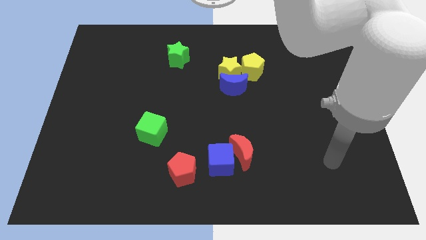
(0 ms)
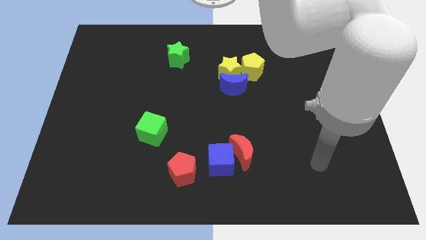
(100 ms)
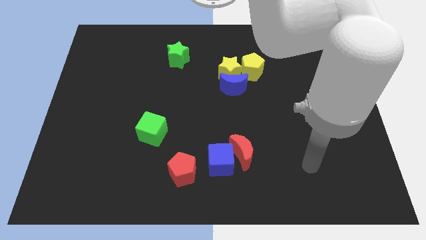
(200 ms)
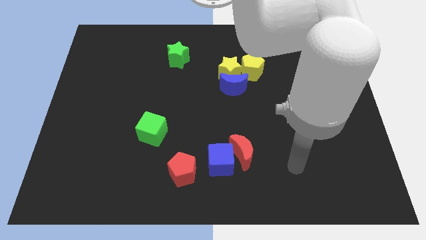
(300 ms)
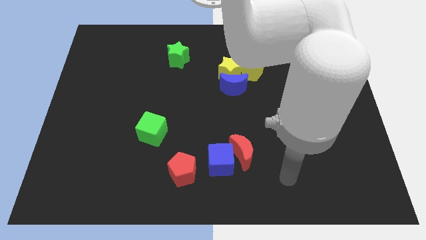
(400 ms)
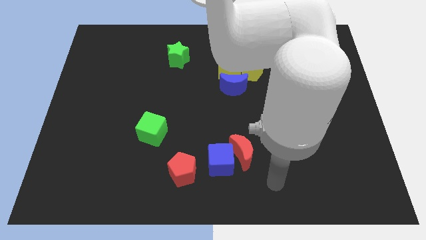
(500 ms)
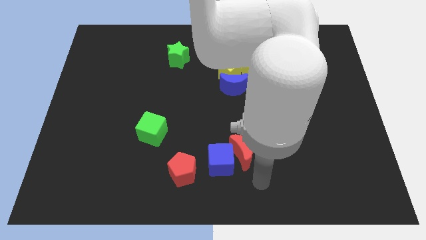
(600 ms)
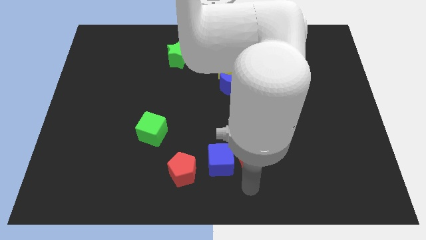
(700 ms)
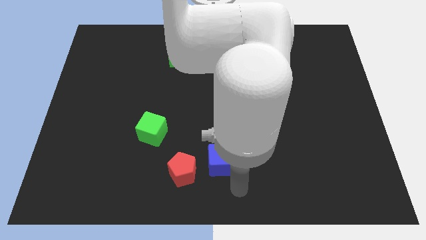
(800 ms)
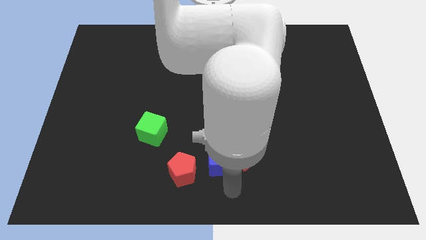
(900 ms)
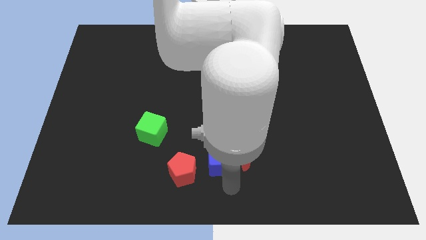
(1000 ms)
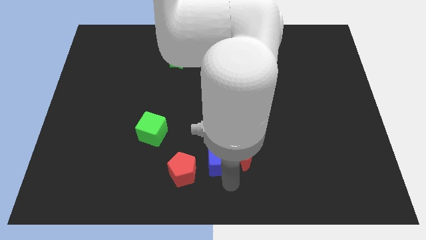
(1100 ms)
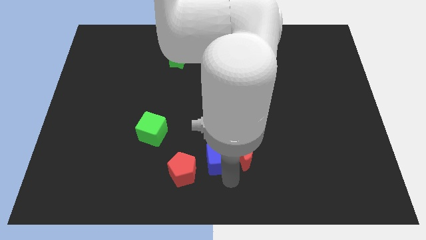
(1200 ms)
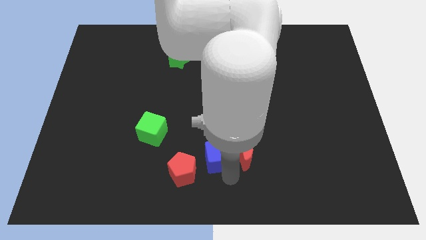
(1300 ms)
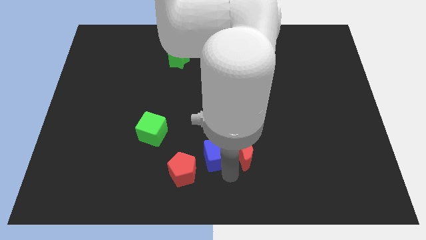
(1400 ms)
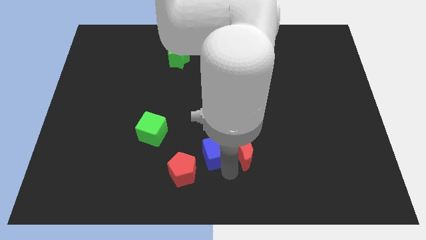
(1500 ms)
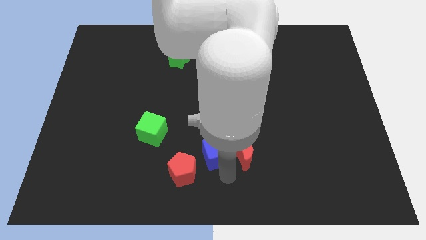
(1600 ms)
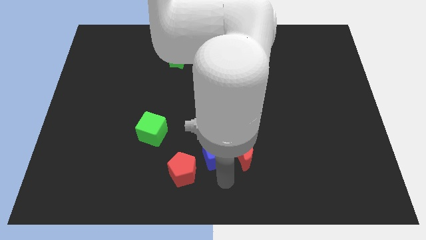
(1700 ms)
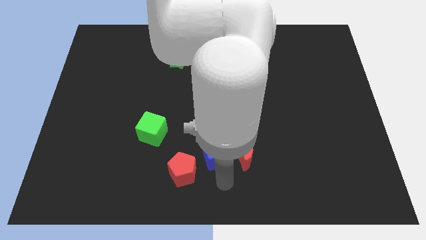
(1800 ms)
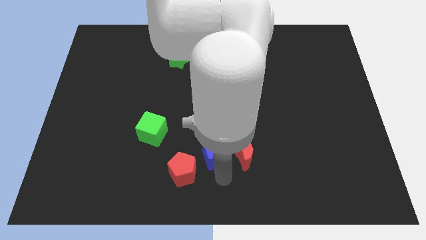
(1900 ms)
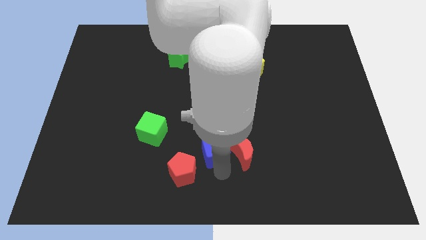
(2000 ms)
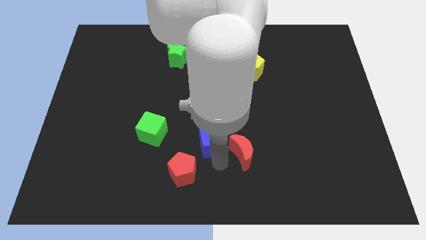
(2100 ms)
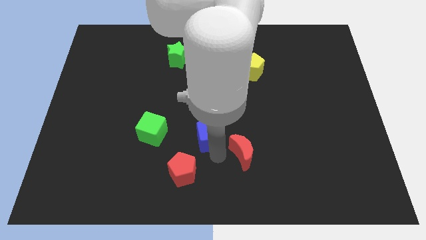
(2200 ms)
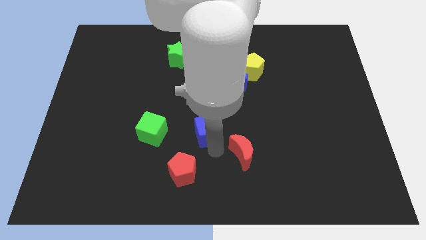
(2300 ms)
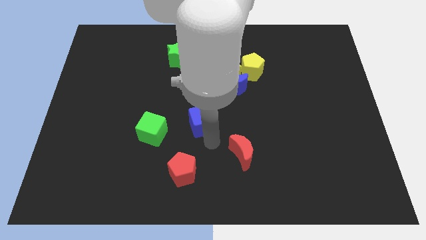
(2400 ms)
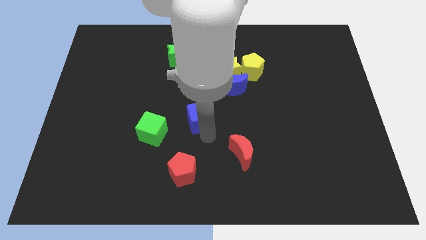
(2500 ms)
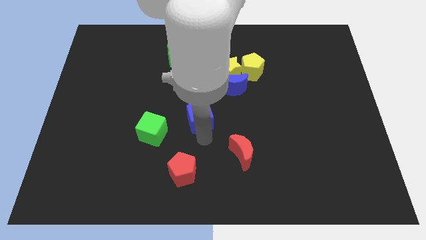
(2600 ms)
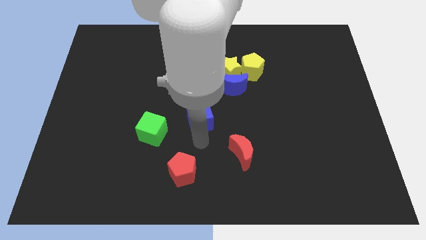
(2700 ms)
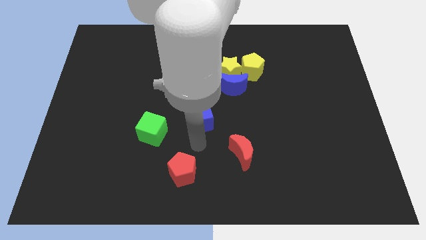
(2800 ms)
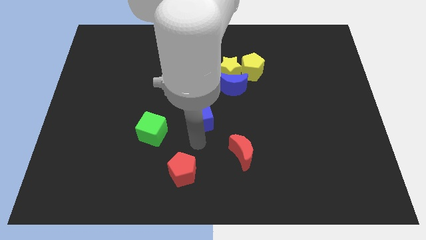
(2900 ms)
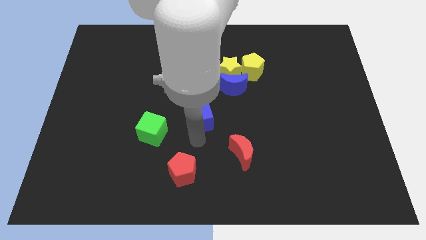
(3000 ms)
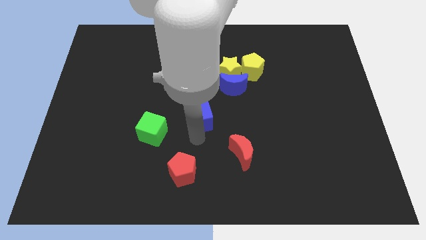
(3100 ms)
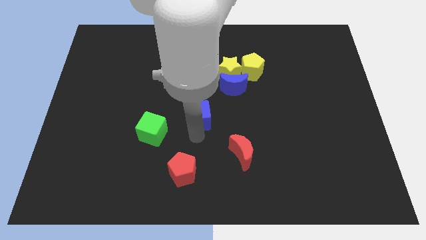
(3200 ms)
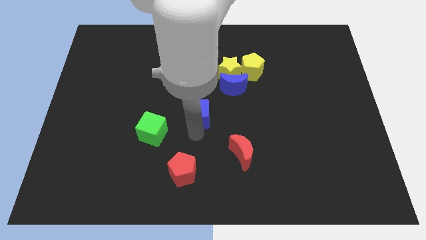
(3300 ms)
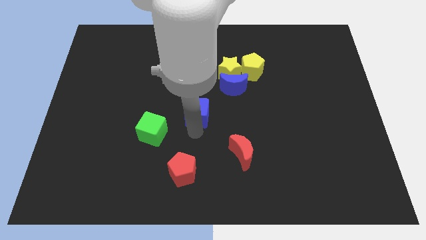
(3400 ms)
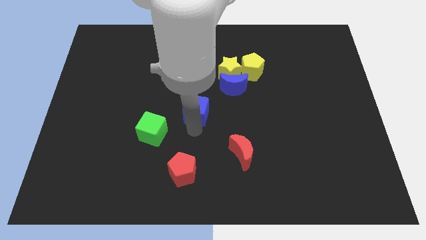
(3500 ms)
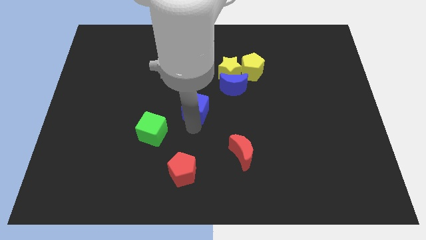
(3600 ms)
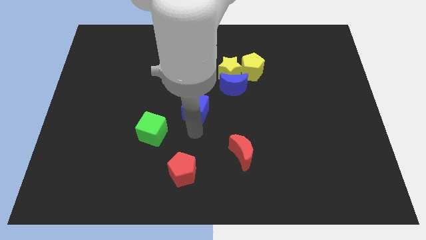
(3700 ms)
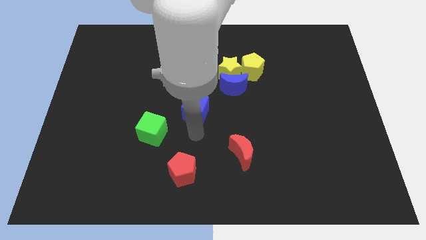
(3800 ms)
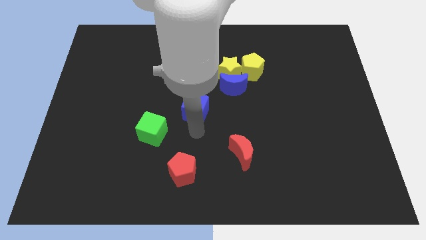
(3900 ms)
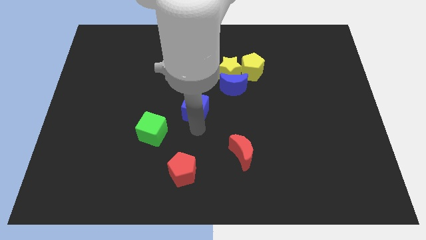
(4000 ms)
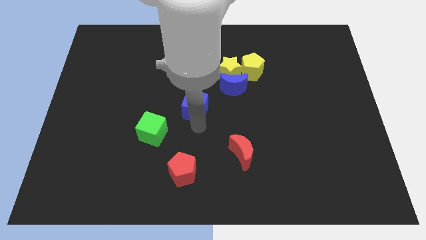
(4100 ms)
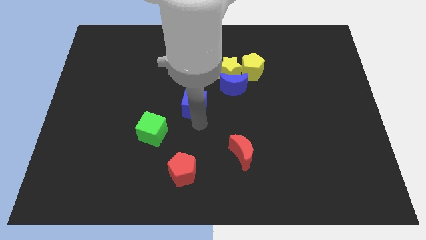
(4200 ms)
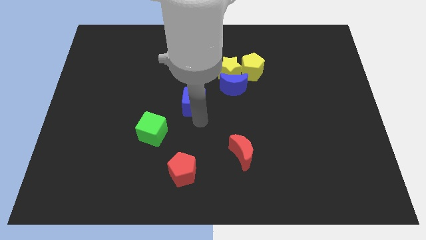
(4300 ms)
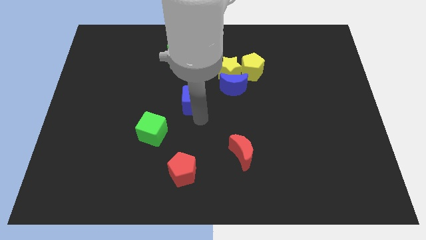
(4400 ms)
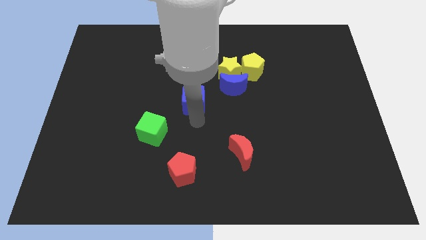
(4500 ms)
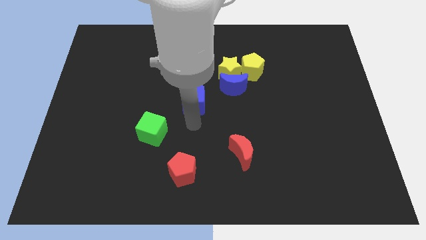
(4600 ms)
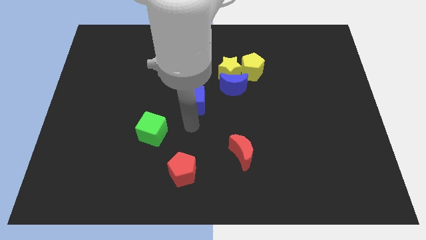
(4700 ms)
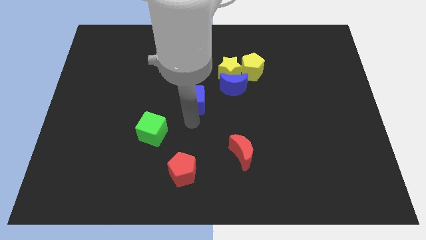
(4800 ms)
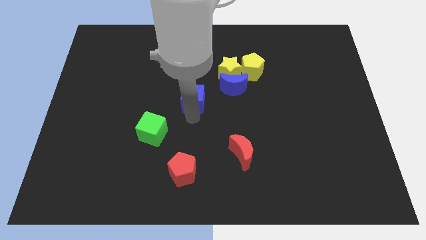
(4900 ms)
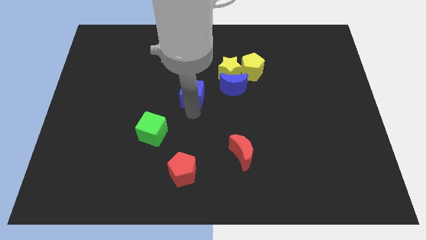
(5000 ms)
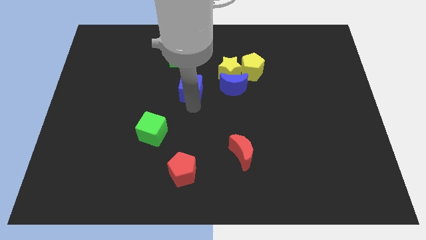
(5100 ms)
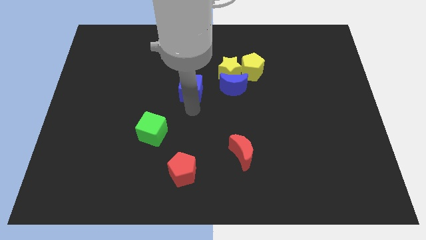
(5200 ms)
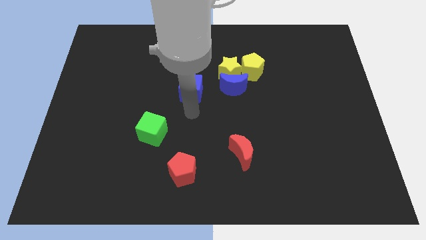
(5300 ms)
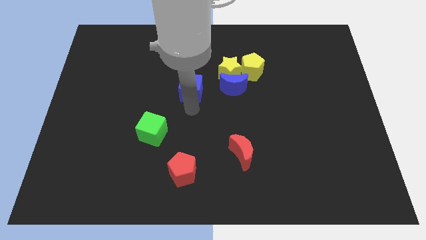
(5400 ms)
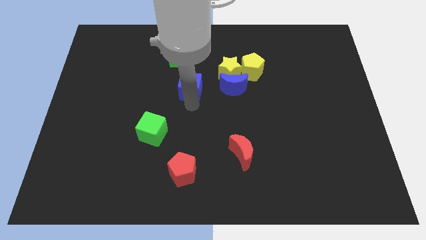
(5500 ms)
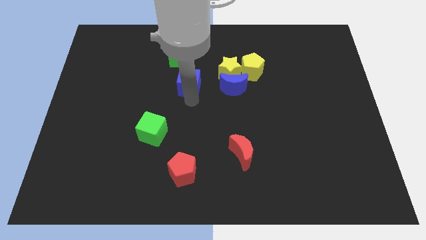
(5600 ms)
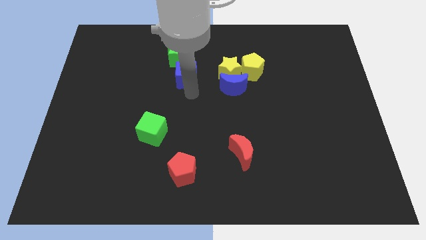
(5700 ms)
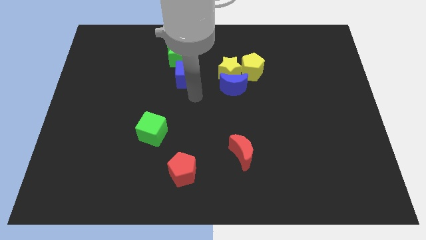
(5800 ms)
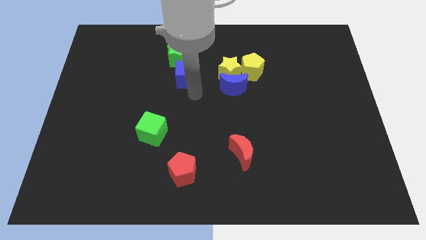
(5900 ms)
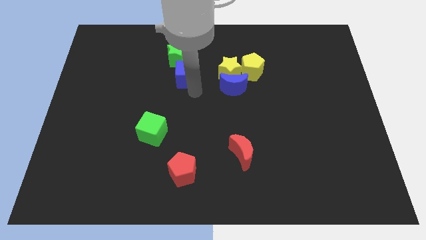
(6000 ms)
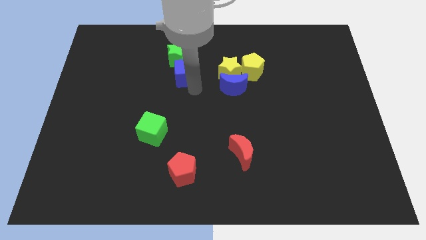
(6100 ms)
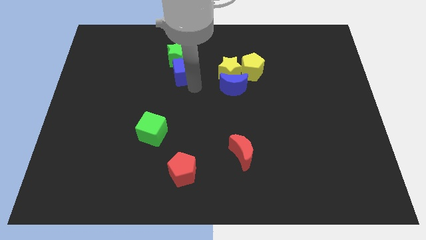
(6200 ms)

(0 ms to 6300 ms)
slide the blue cube to the green star

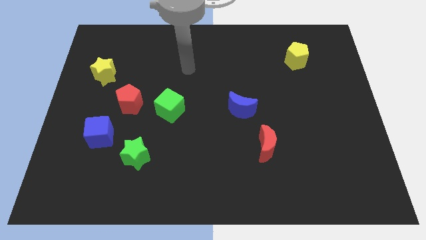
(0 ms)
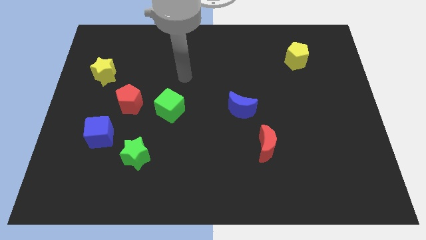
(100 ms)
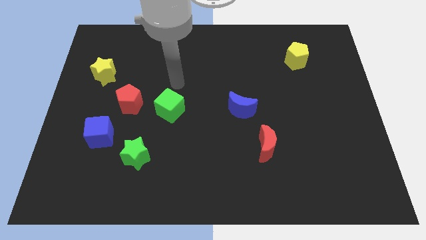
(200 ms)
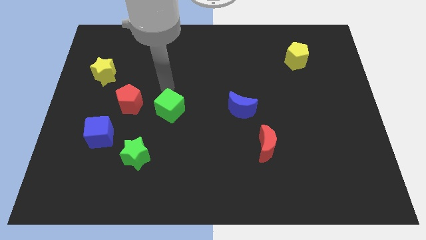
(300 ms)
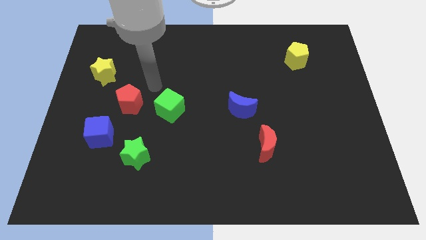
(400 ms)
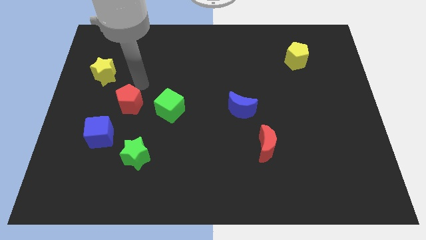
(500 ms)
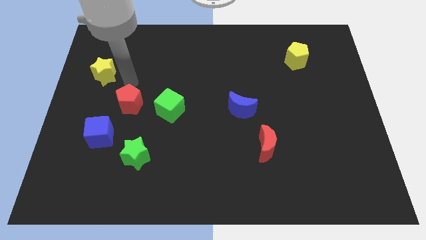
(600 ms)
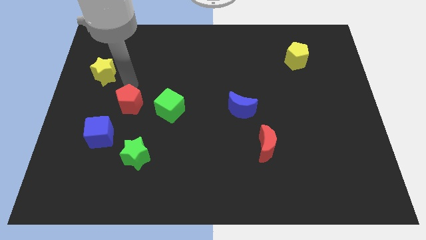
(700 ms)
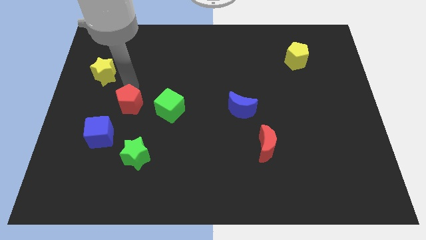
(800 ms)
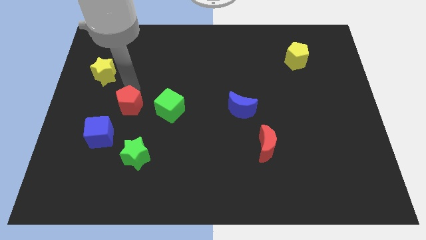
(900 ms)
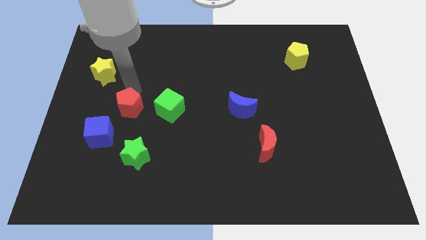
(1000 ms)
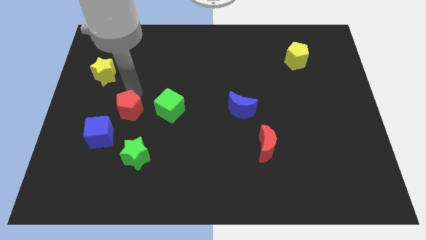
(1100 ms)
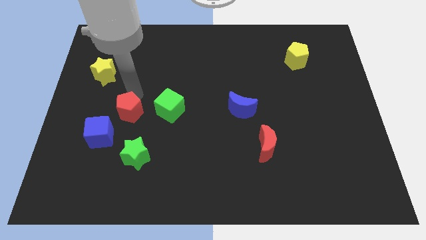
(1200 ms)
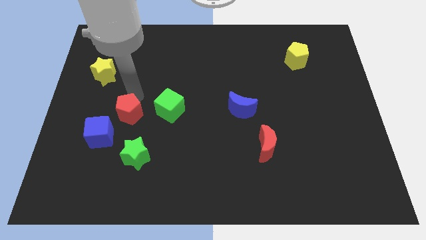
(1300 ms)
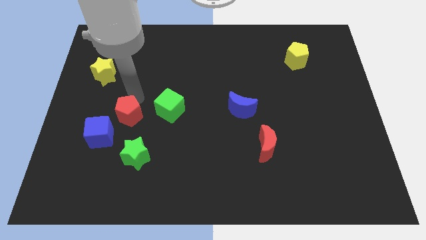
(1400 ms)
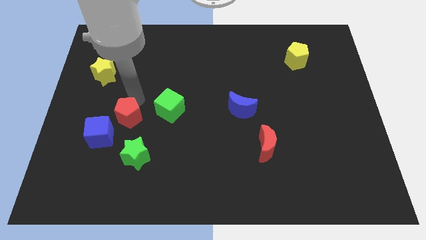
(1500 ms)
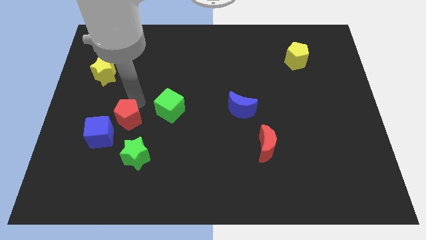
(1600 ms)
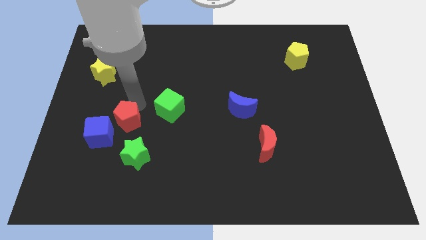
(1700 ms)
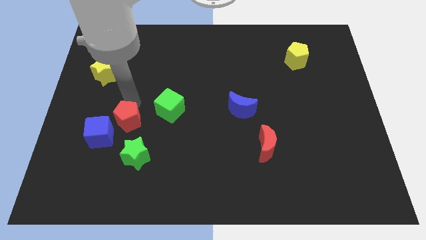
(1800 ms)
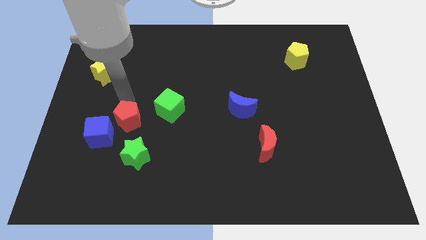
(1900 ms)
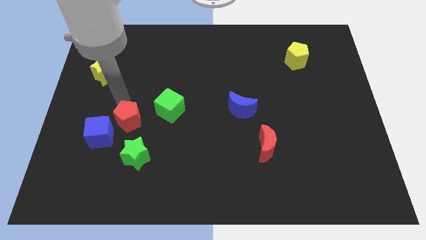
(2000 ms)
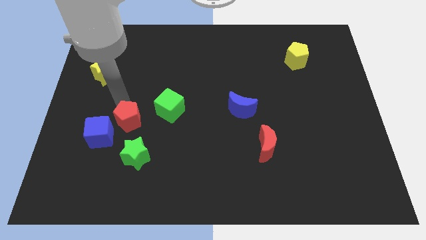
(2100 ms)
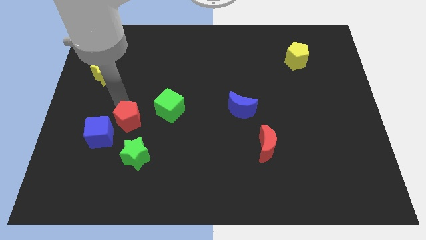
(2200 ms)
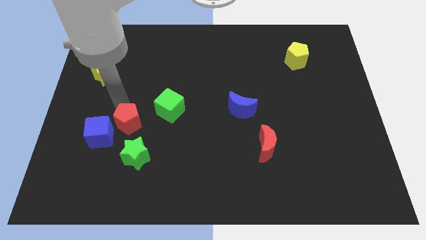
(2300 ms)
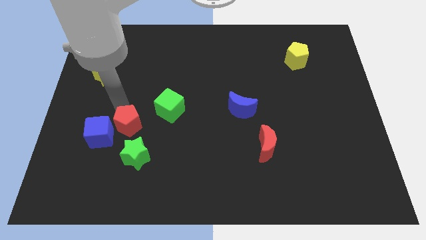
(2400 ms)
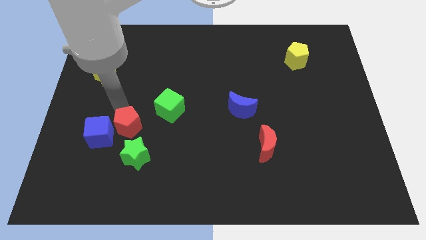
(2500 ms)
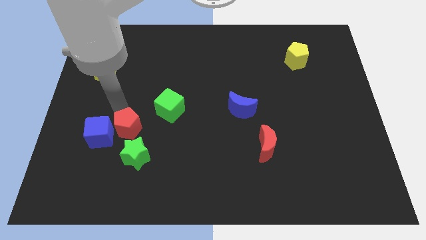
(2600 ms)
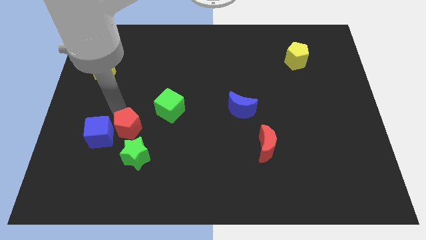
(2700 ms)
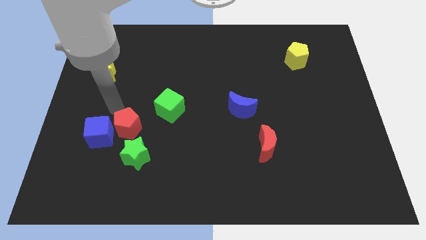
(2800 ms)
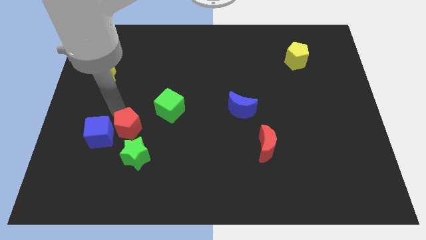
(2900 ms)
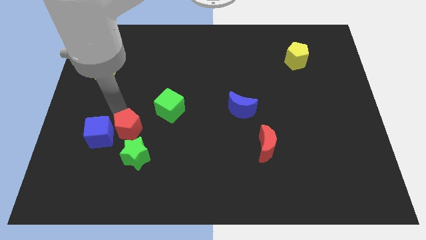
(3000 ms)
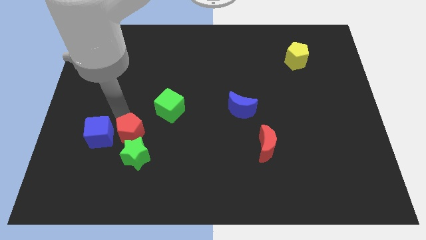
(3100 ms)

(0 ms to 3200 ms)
slide the red pentagon close to the green star
